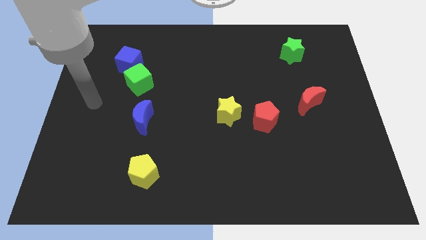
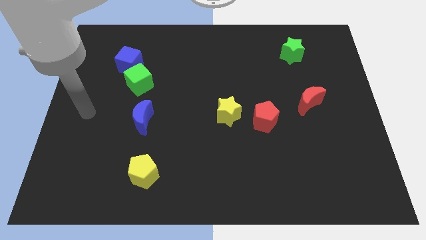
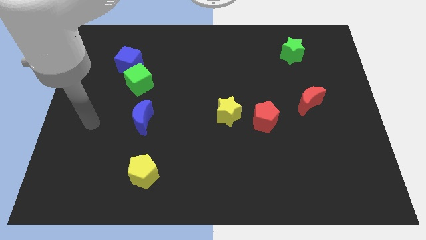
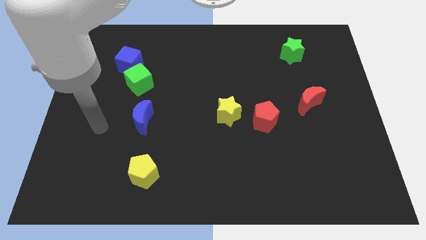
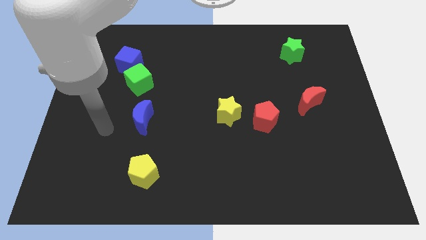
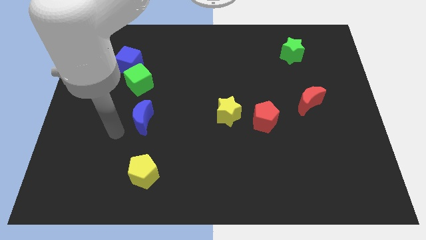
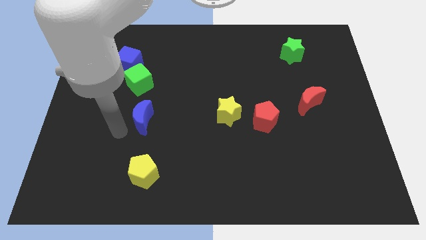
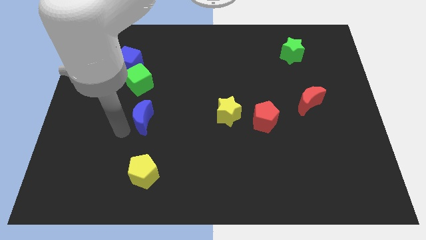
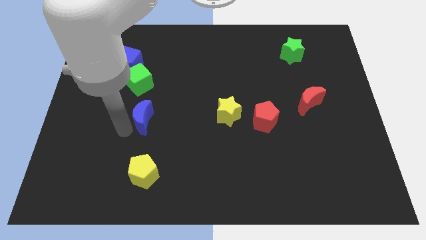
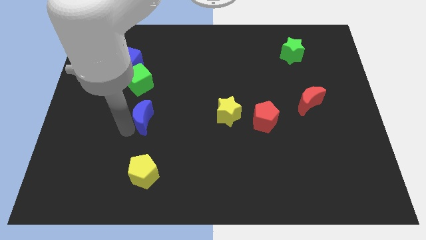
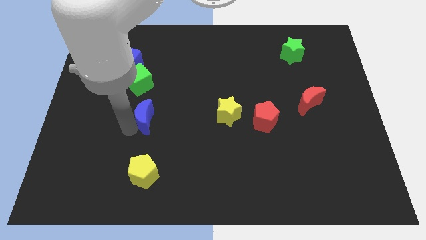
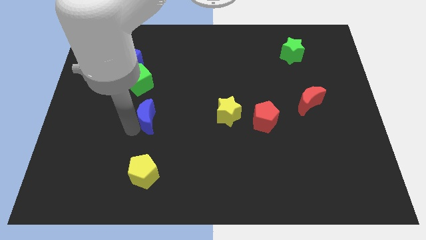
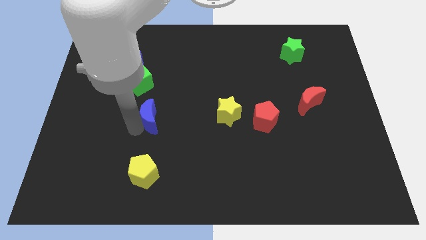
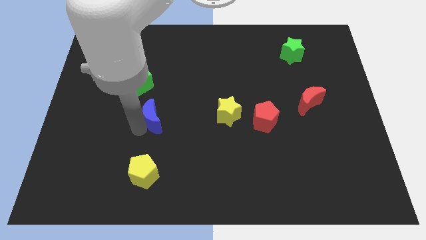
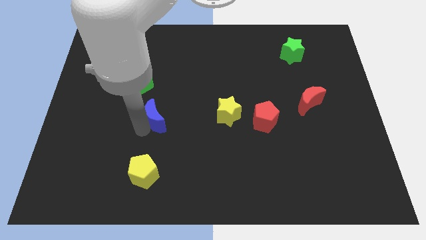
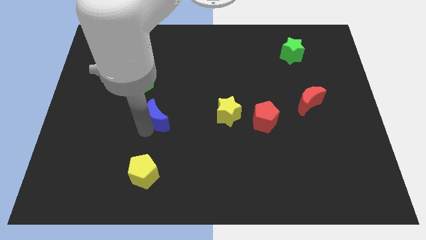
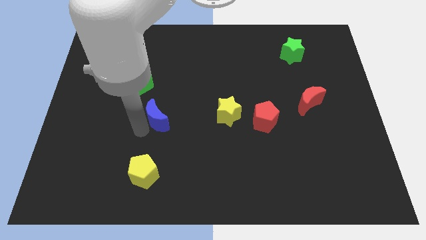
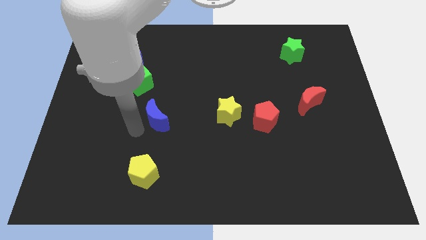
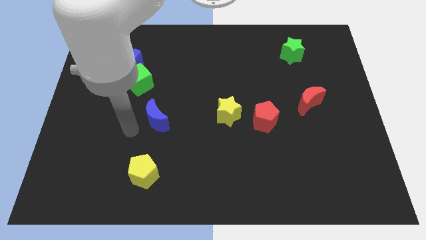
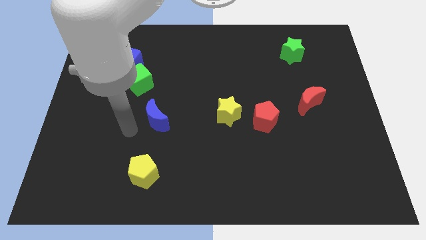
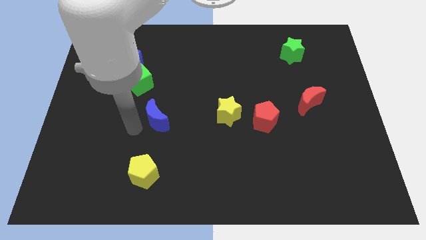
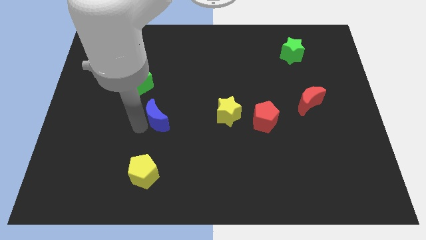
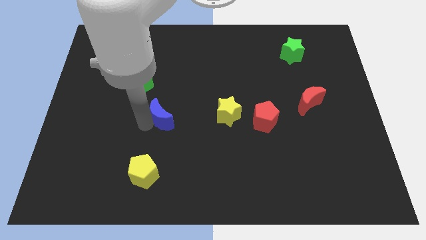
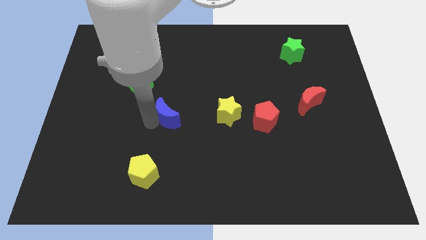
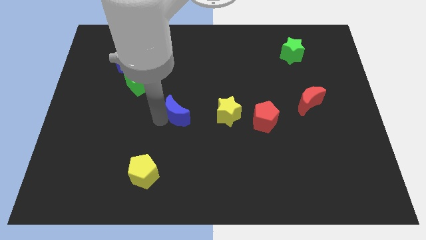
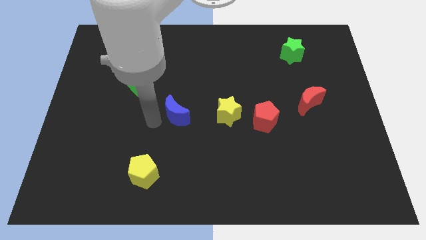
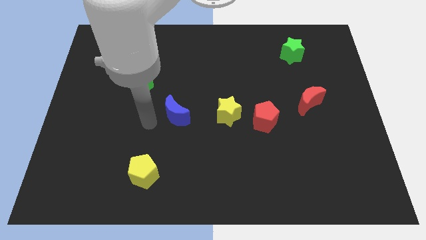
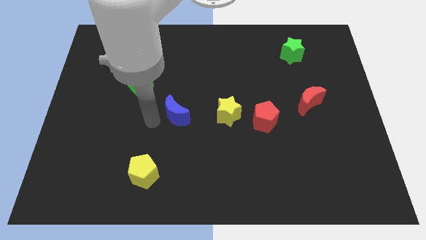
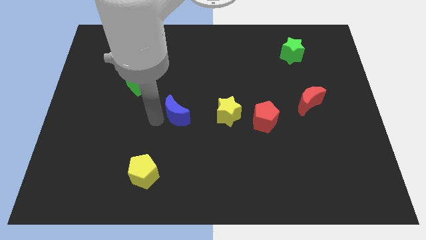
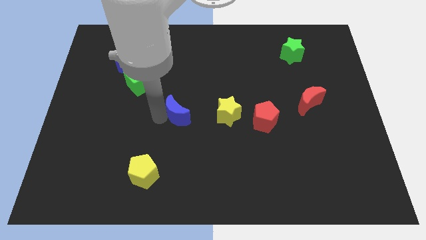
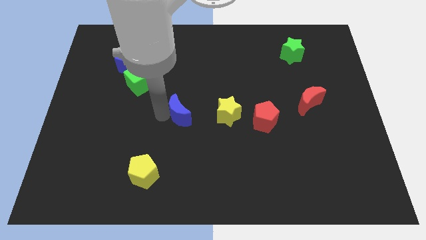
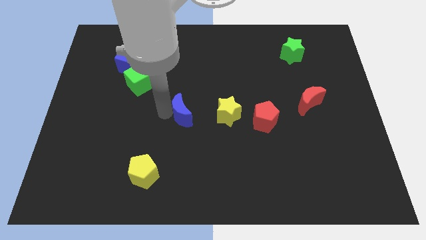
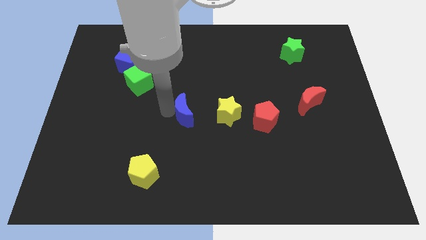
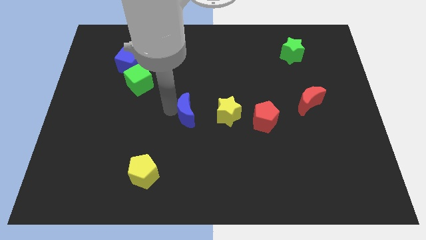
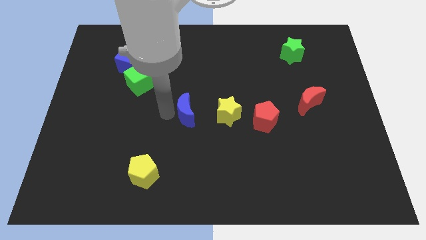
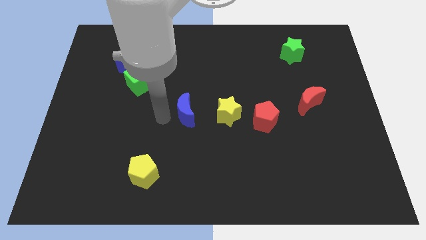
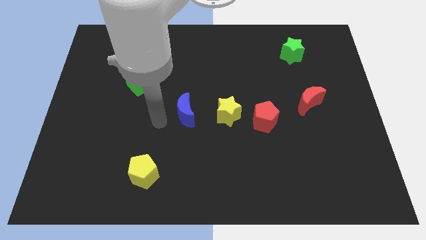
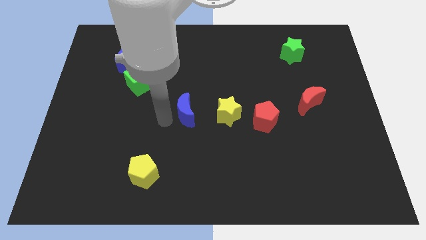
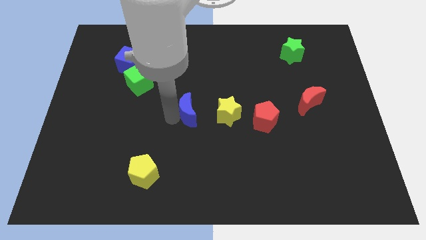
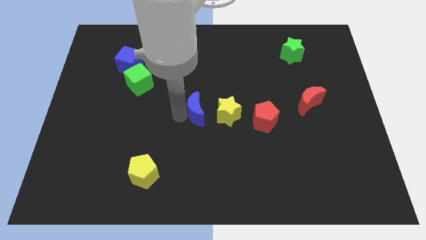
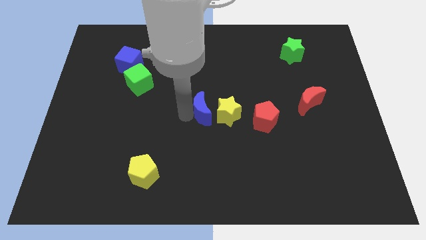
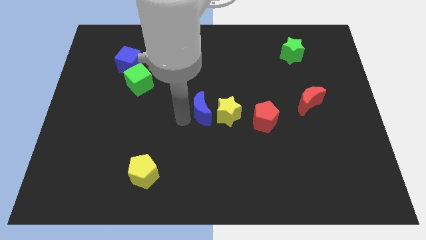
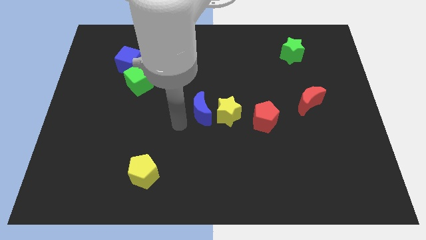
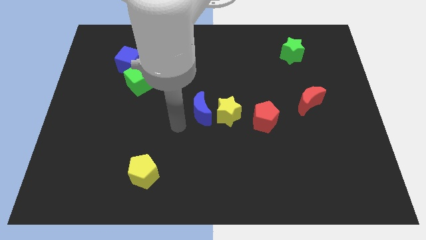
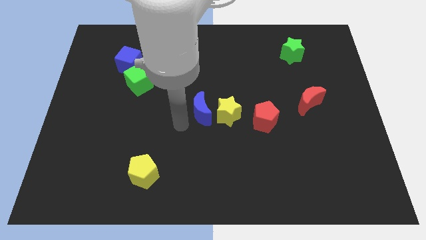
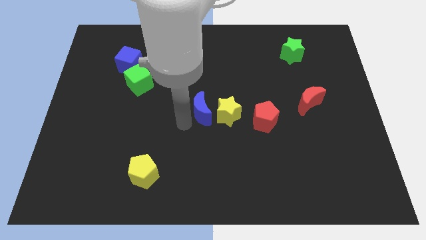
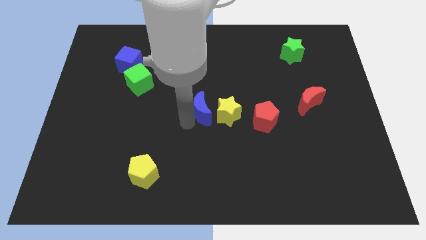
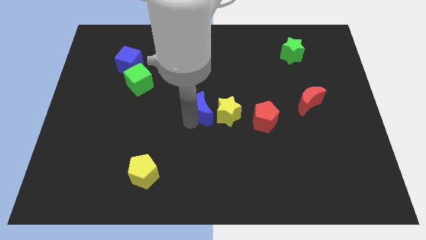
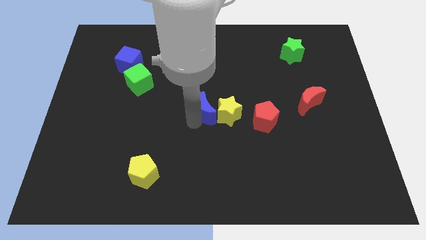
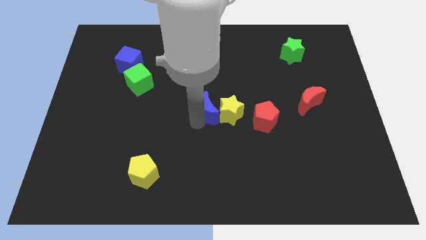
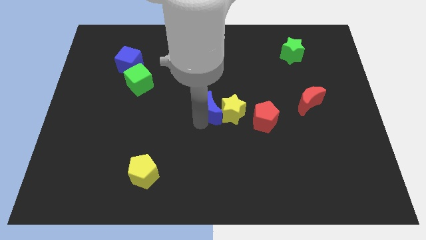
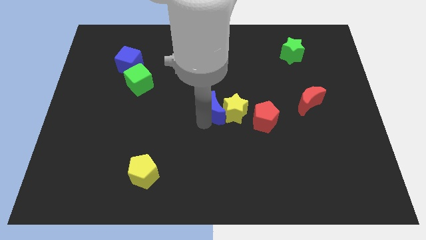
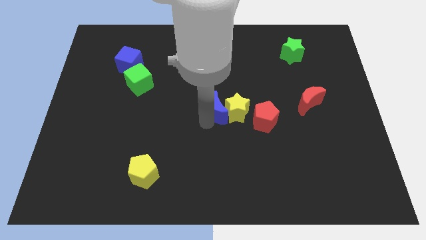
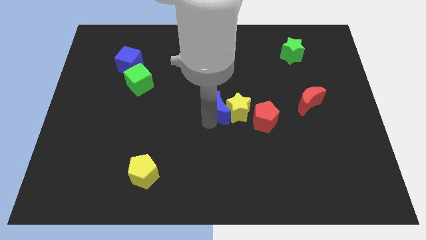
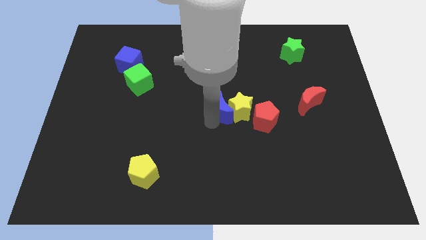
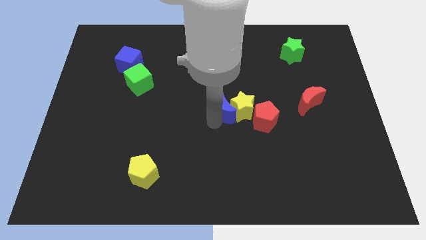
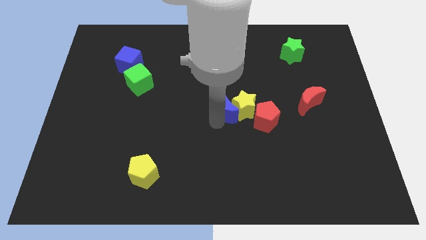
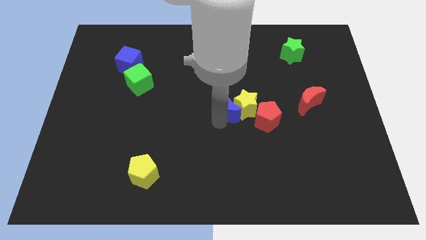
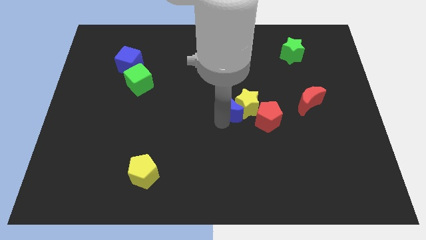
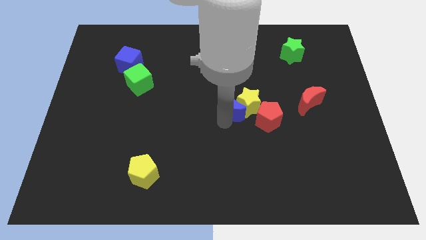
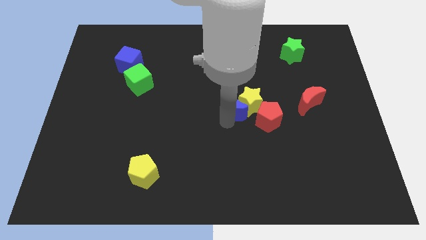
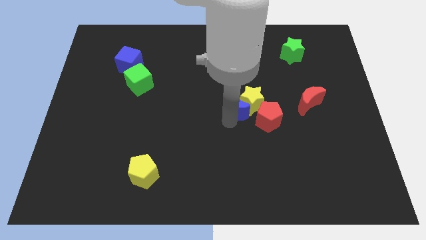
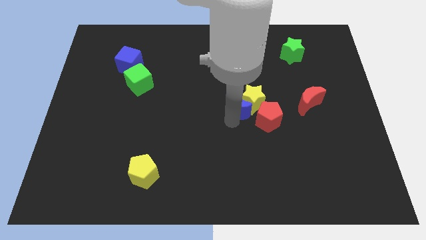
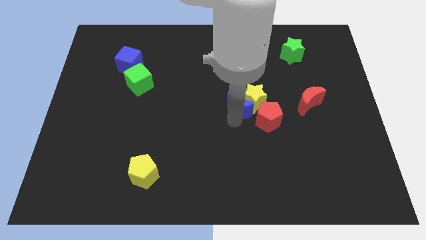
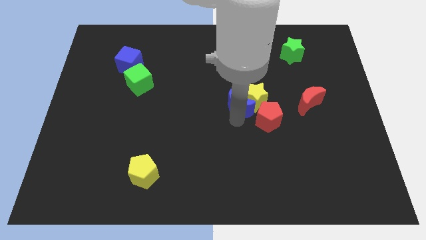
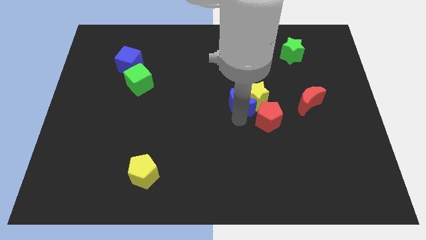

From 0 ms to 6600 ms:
move the blue moon just left of the red moon

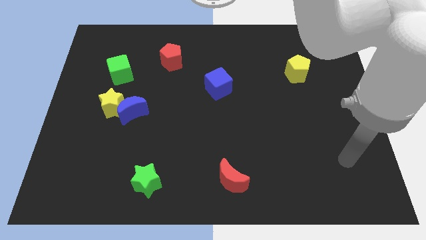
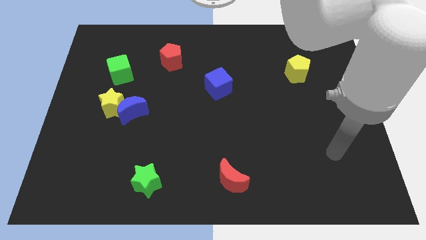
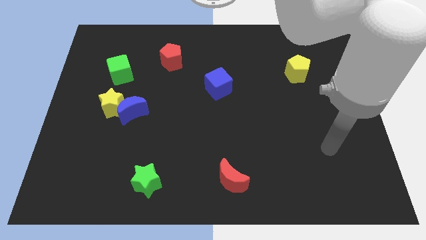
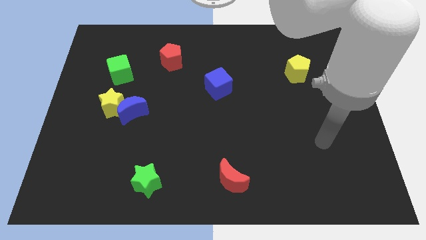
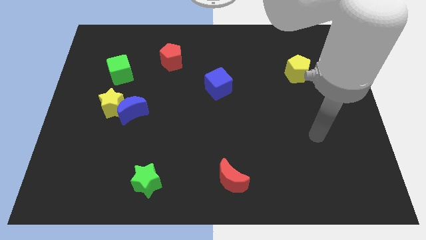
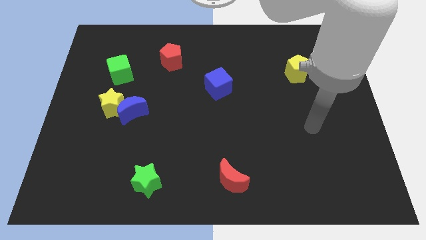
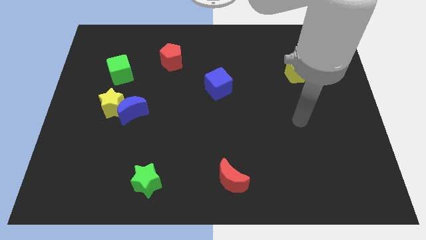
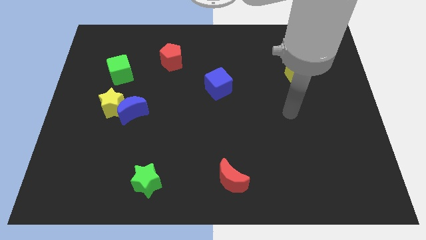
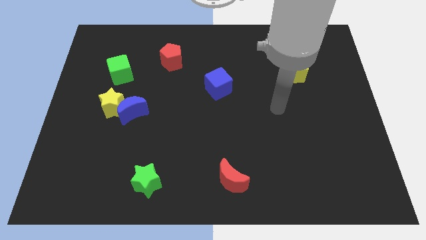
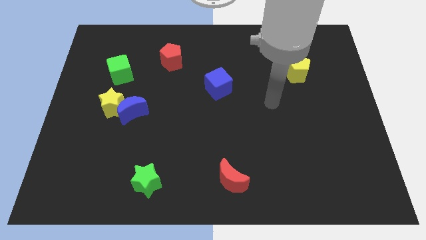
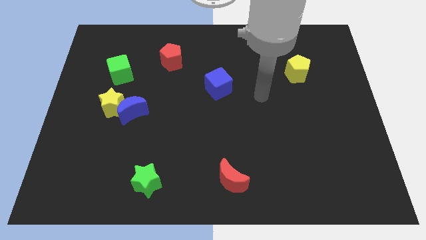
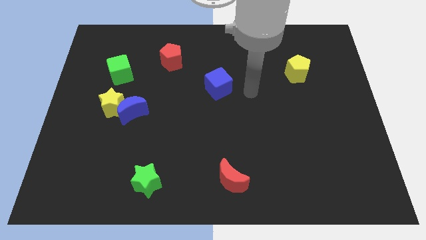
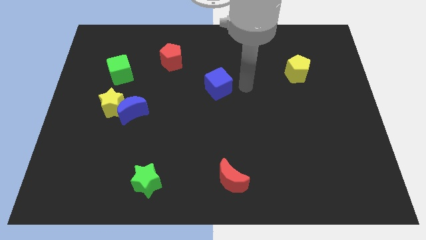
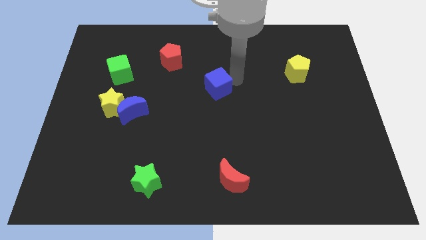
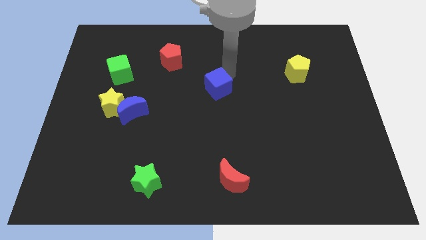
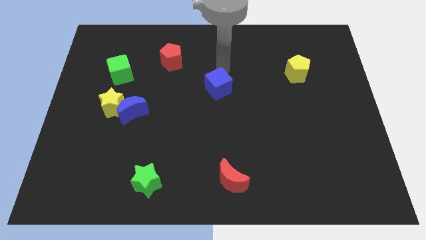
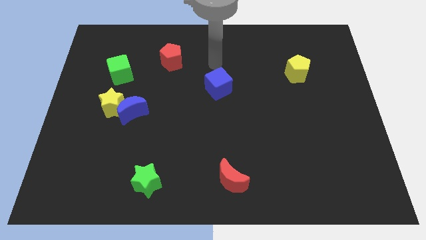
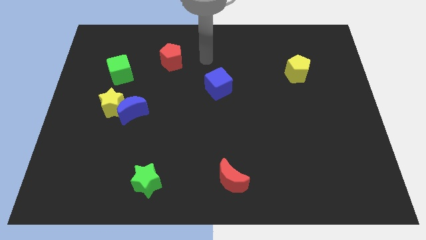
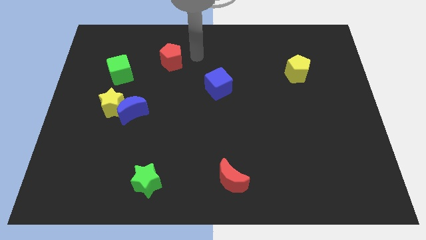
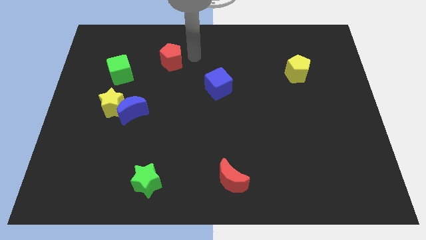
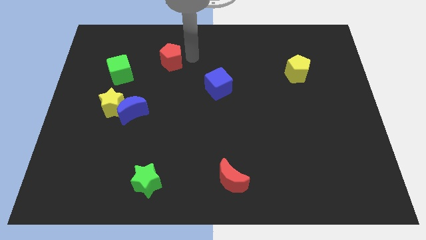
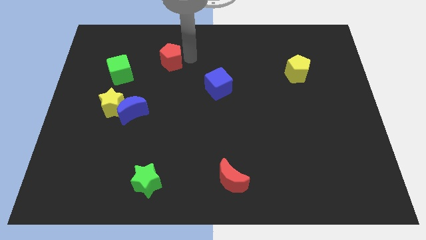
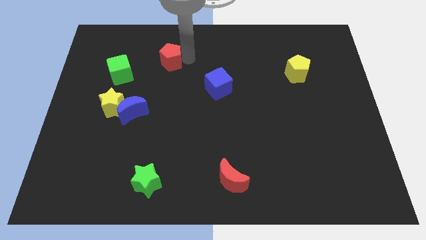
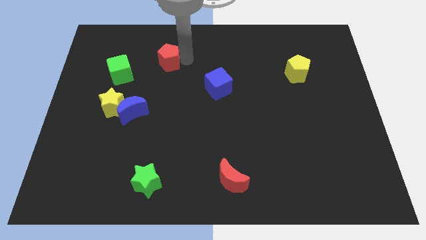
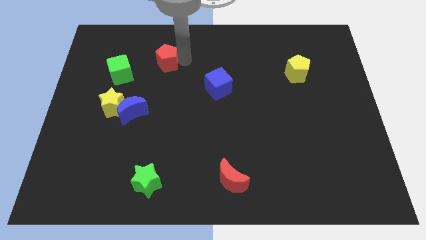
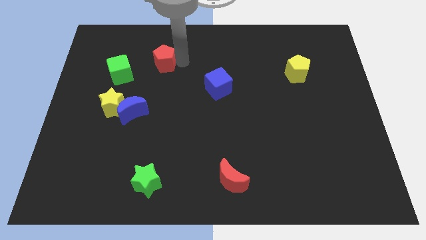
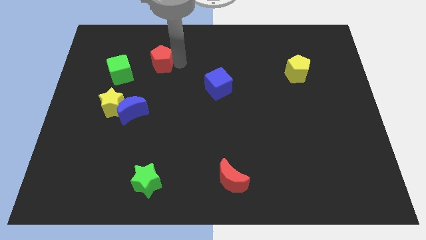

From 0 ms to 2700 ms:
put the red pentagon diagonally up and to the right of the green cube
